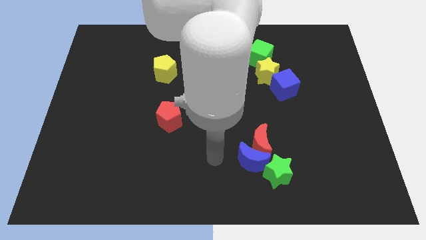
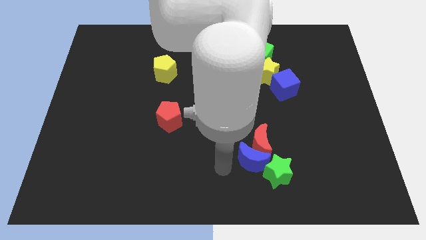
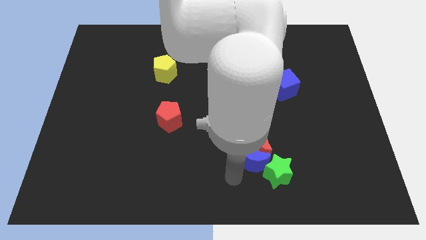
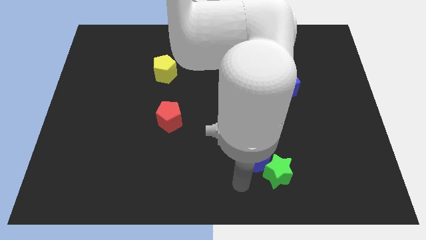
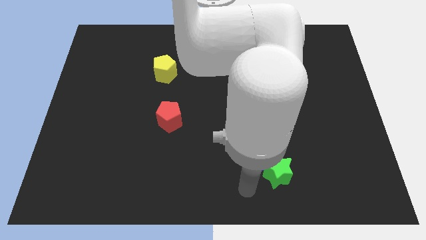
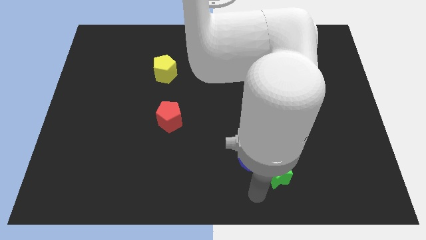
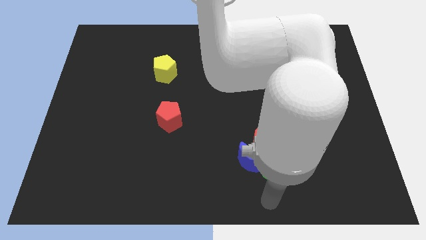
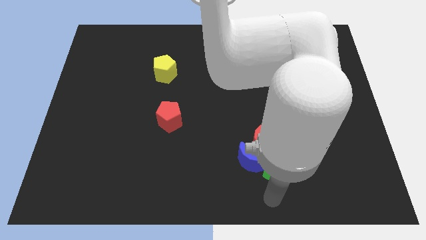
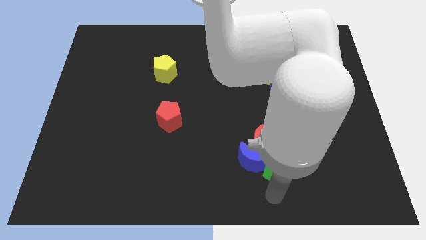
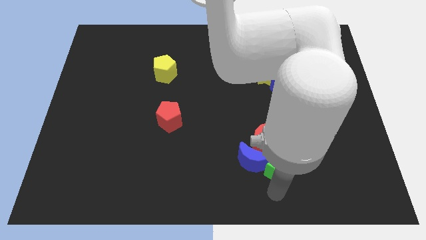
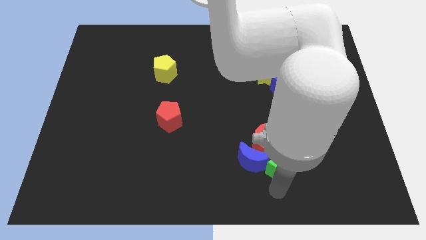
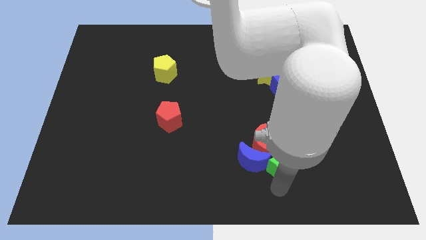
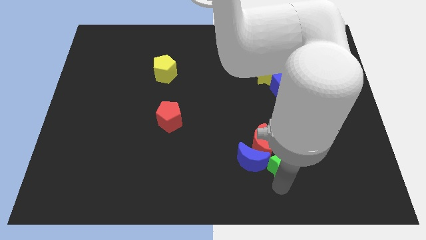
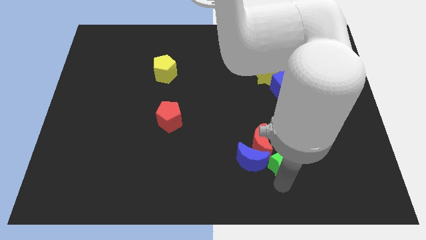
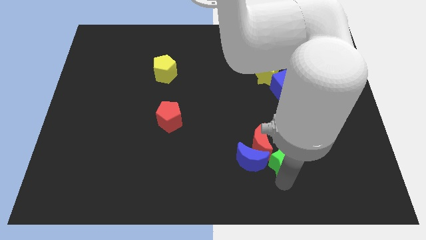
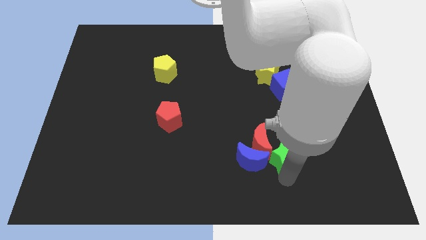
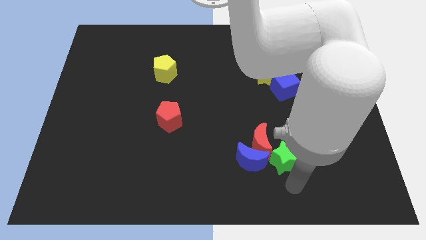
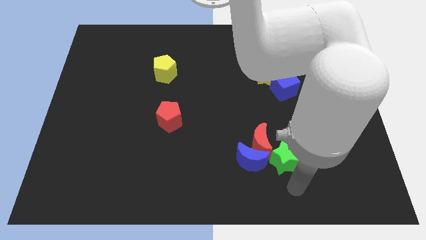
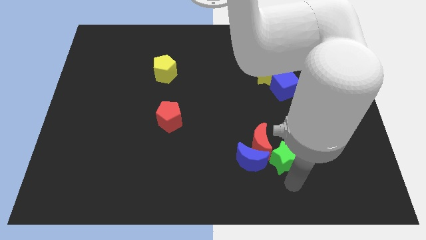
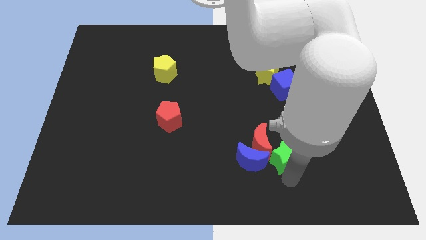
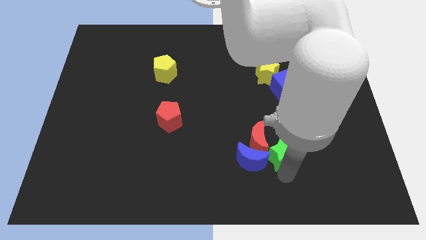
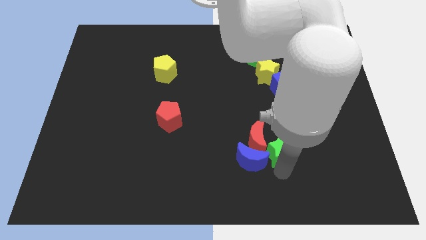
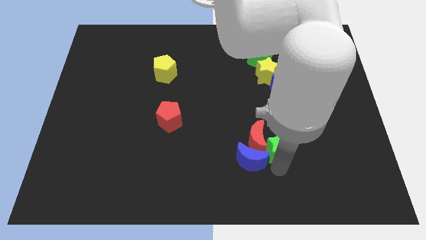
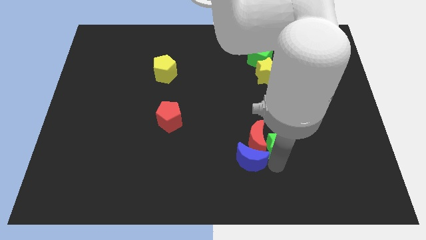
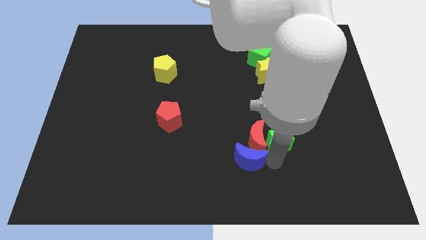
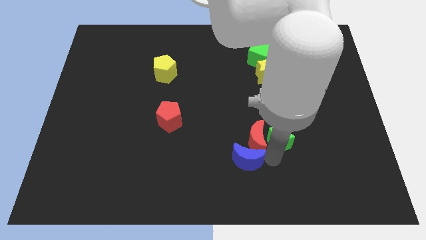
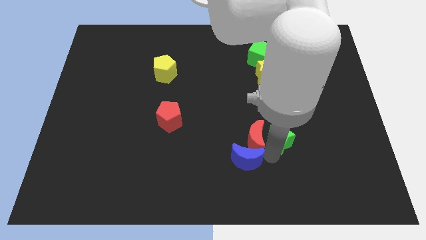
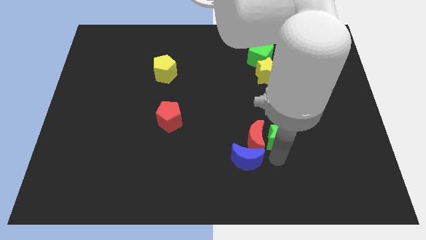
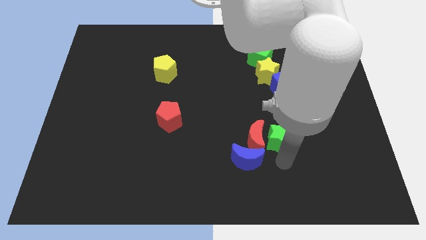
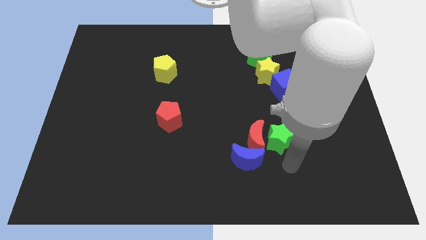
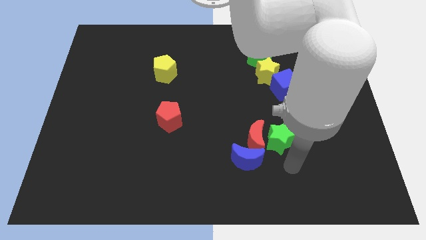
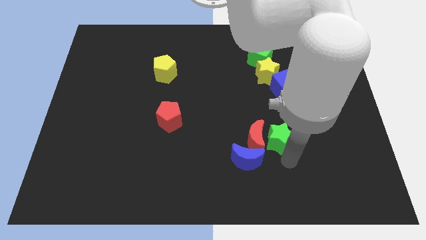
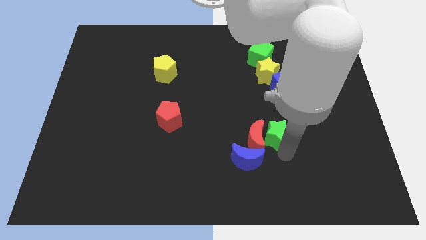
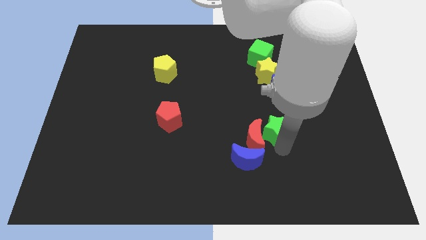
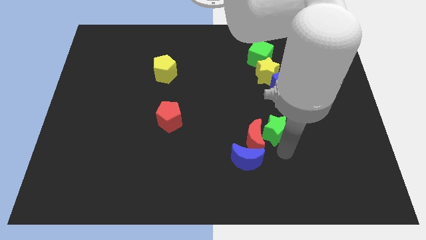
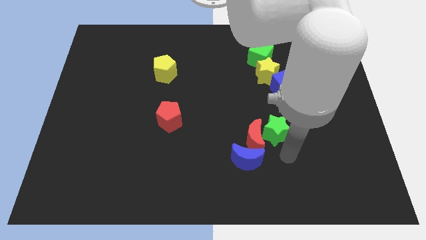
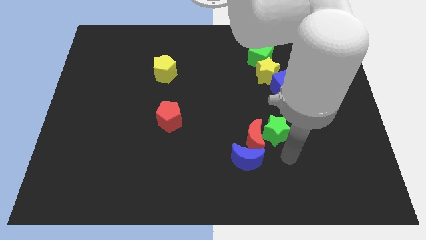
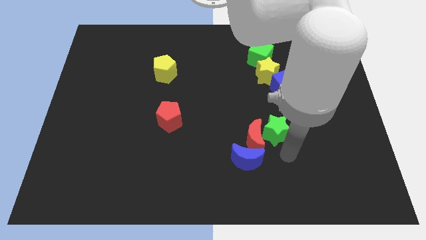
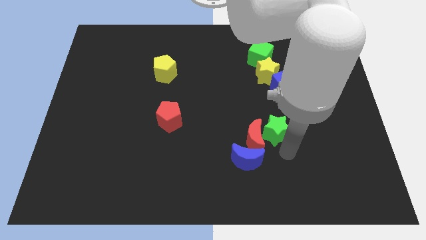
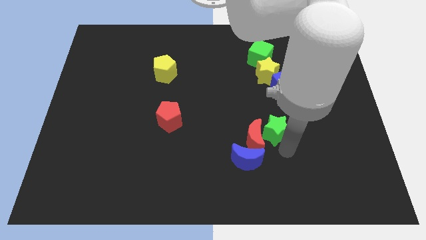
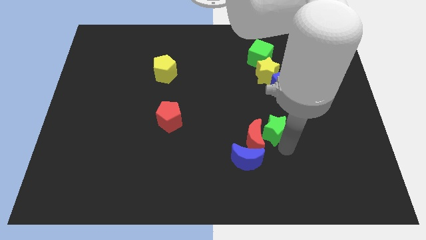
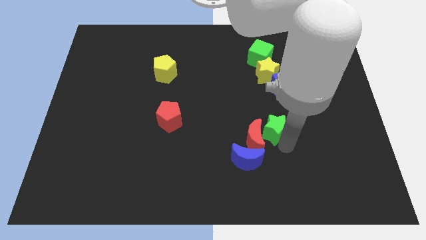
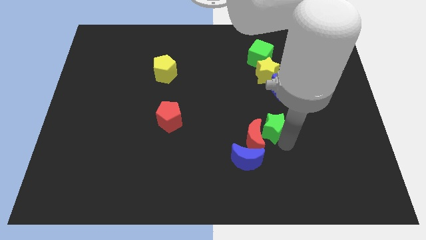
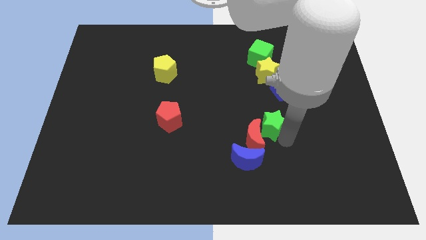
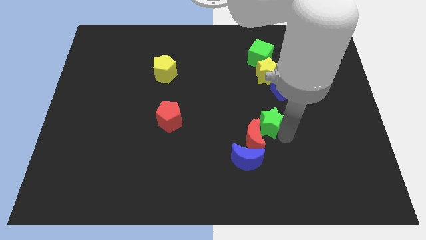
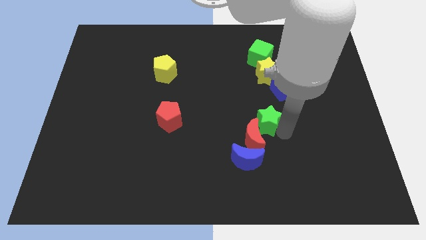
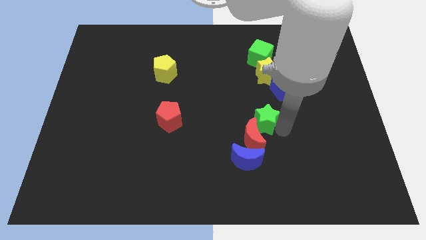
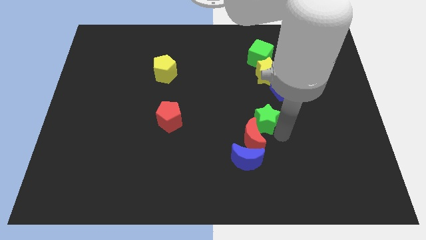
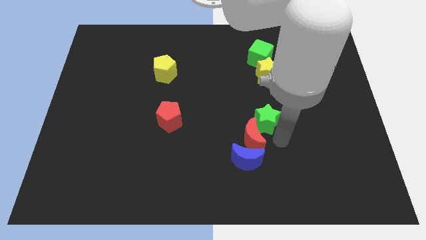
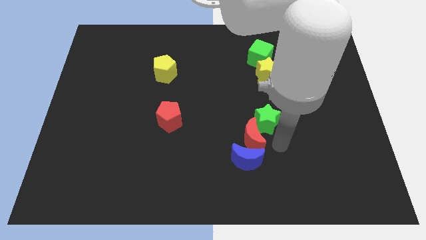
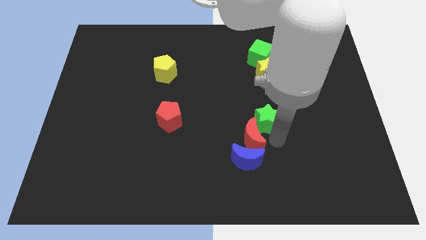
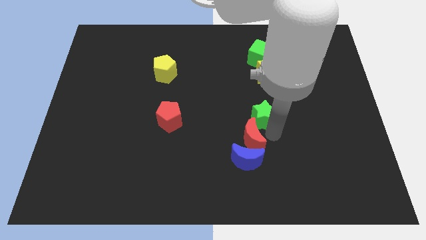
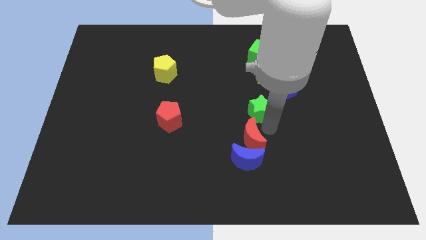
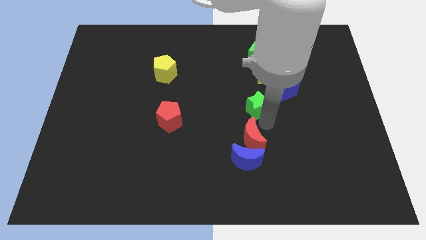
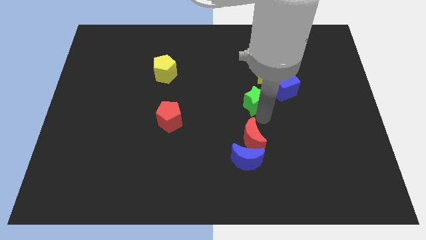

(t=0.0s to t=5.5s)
push the green star to the bottom left of the yellow star
